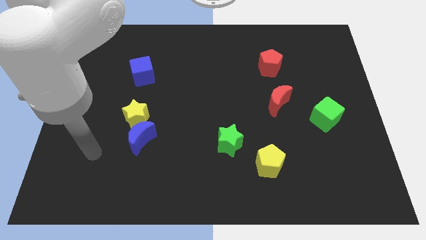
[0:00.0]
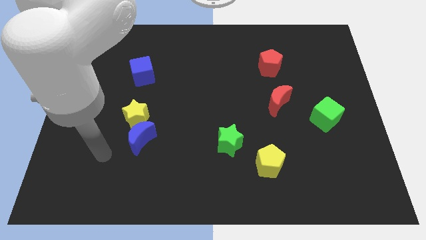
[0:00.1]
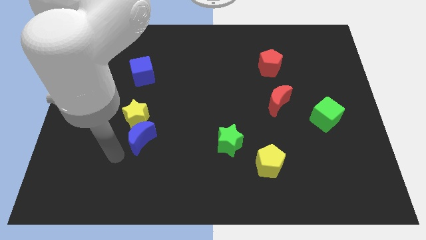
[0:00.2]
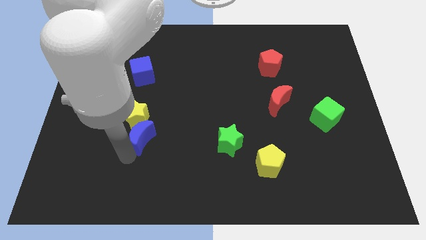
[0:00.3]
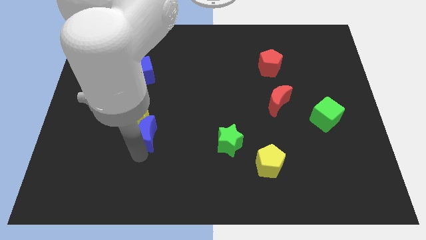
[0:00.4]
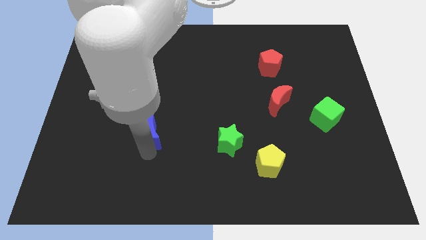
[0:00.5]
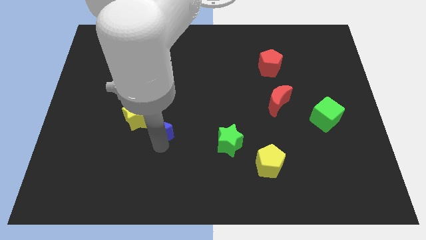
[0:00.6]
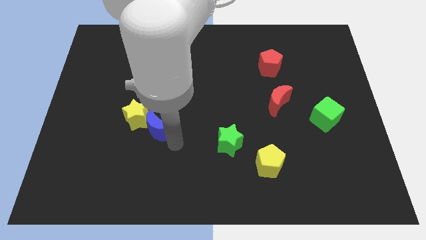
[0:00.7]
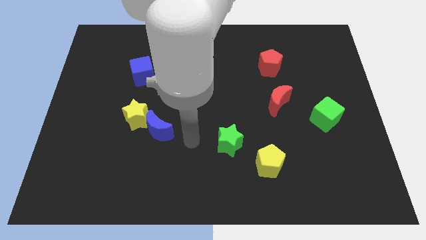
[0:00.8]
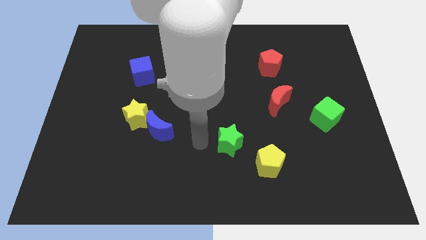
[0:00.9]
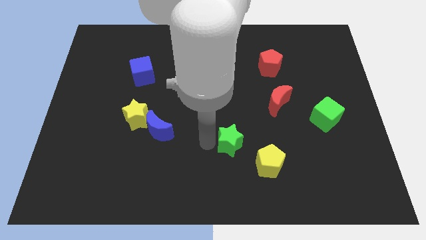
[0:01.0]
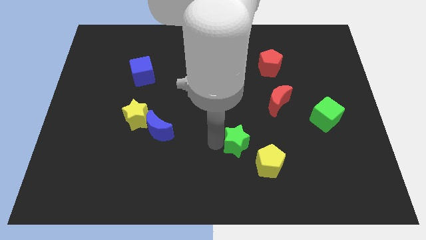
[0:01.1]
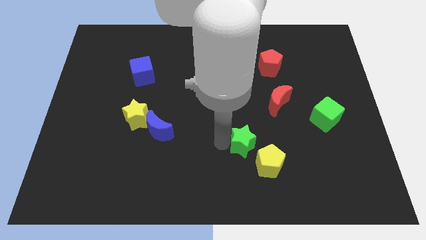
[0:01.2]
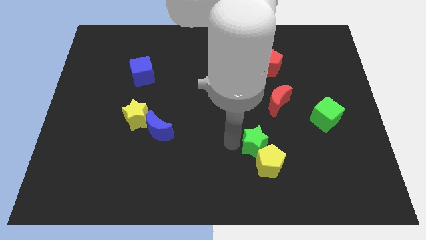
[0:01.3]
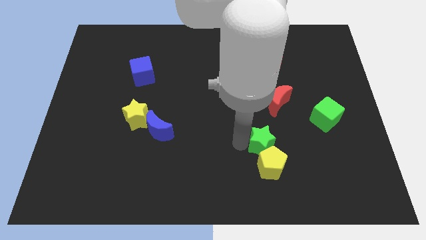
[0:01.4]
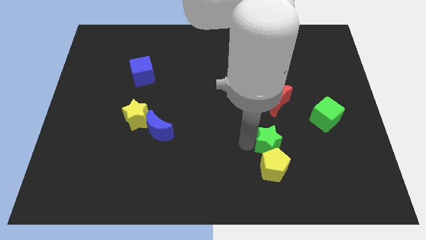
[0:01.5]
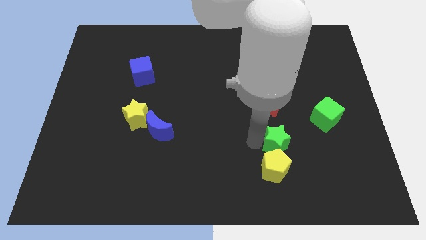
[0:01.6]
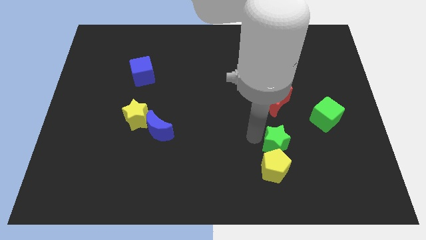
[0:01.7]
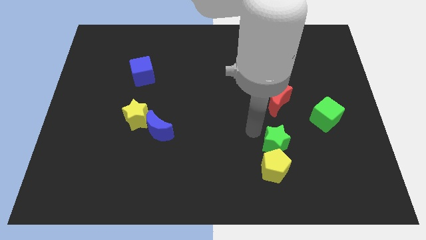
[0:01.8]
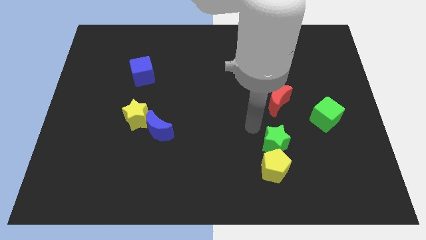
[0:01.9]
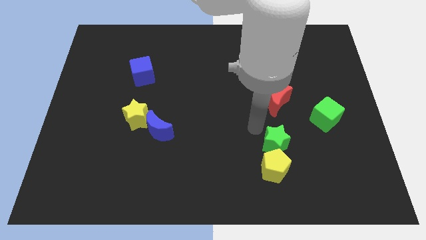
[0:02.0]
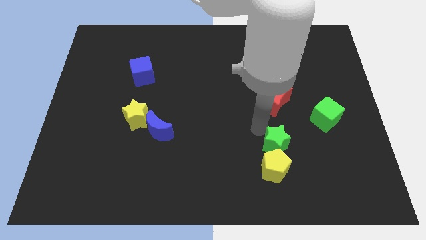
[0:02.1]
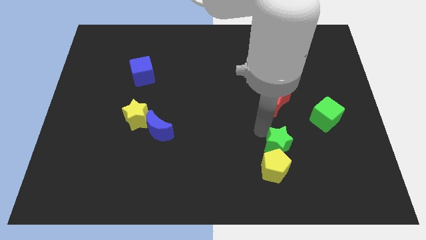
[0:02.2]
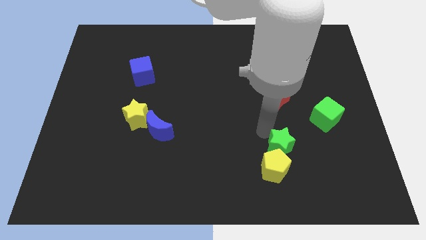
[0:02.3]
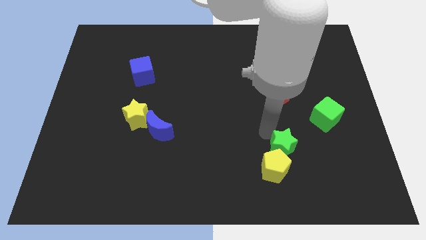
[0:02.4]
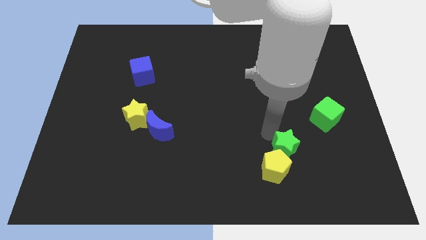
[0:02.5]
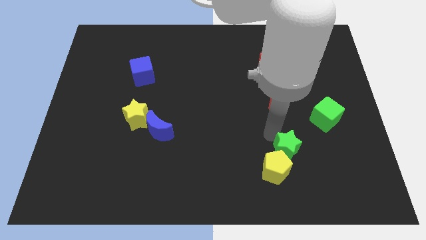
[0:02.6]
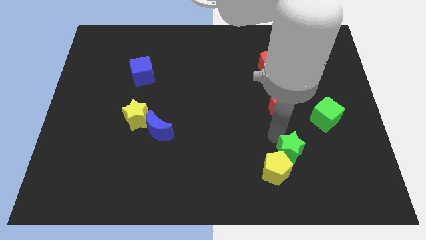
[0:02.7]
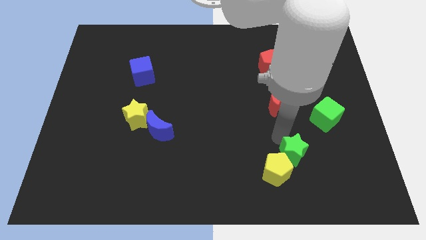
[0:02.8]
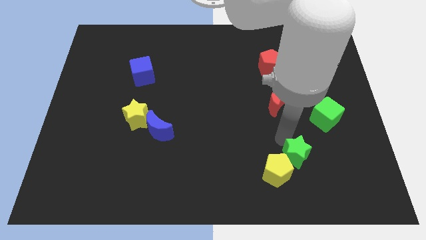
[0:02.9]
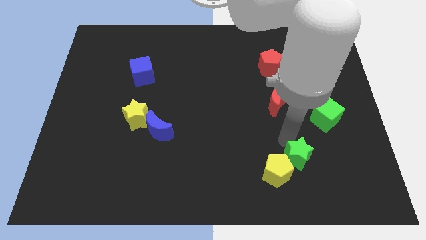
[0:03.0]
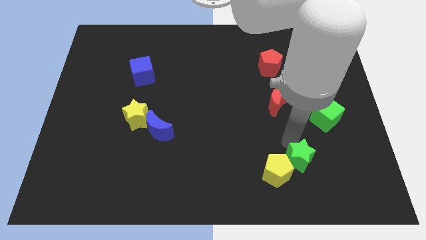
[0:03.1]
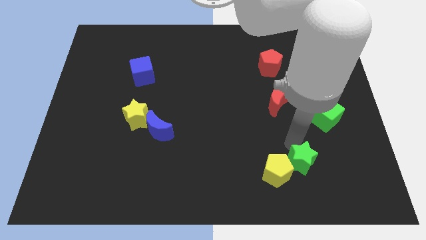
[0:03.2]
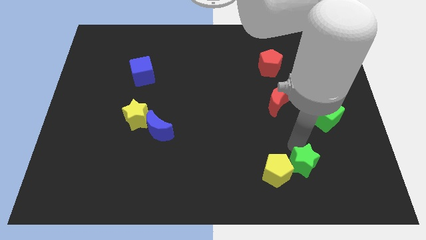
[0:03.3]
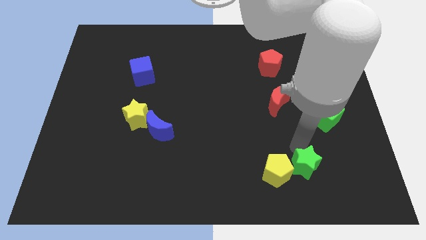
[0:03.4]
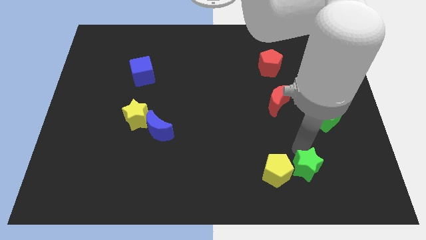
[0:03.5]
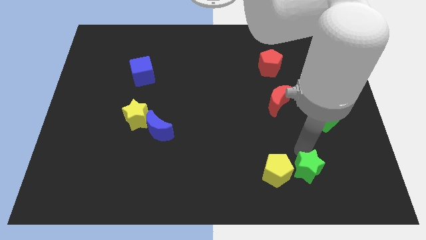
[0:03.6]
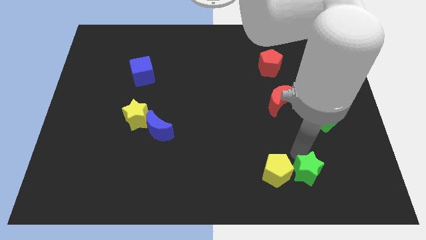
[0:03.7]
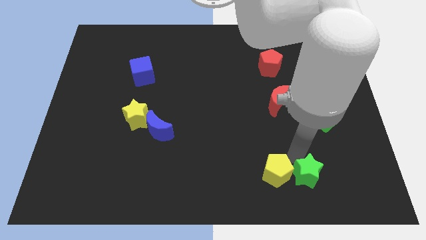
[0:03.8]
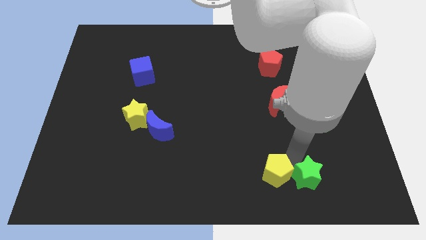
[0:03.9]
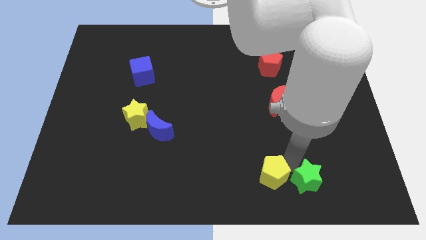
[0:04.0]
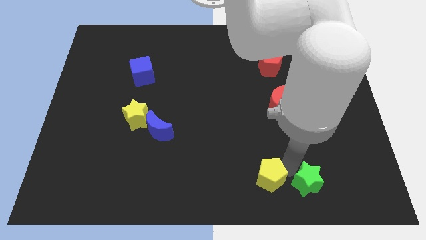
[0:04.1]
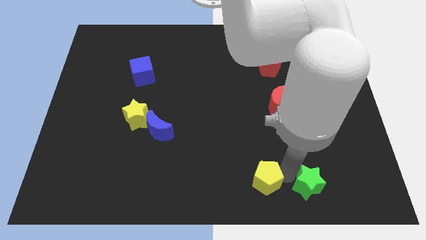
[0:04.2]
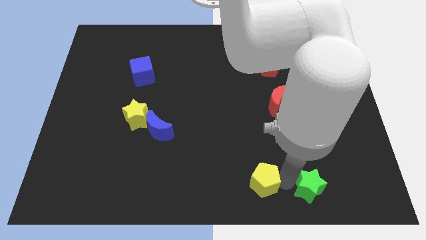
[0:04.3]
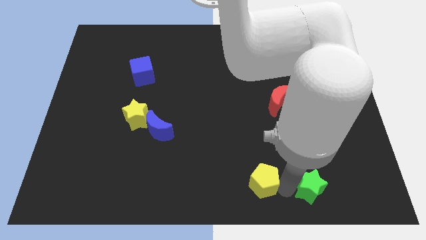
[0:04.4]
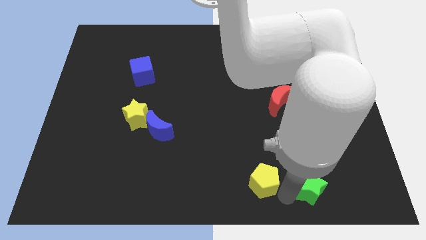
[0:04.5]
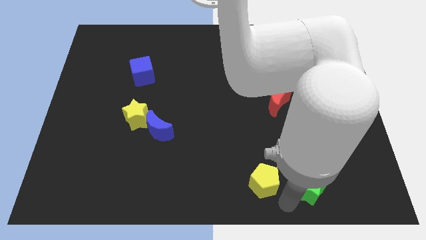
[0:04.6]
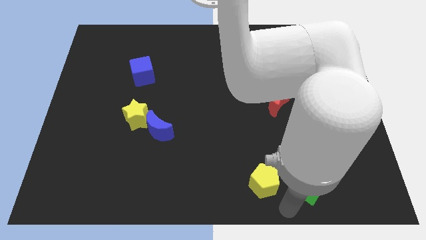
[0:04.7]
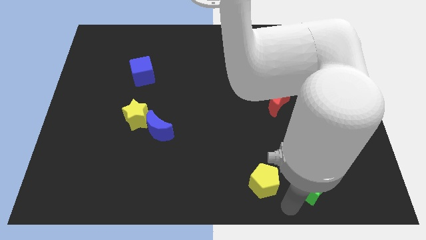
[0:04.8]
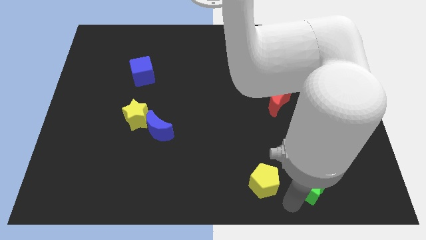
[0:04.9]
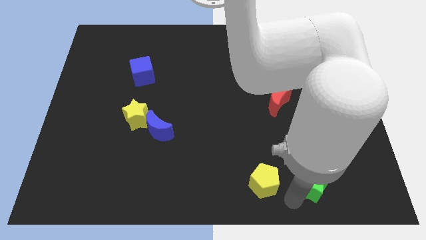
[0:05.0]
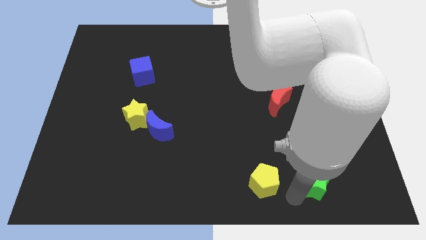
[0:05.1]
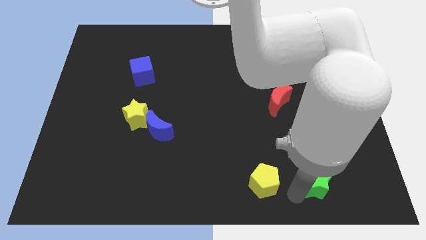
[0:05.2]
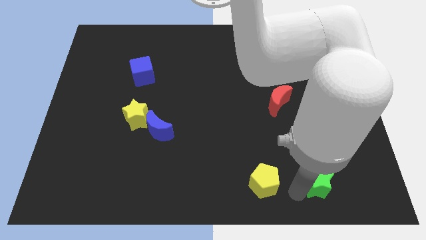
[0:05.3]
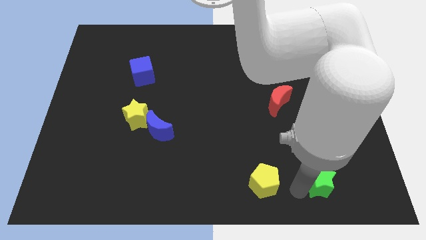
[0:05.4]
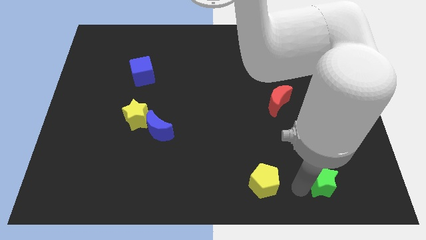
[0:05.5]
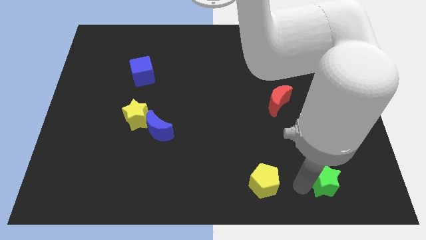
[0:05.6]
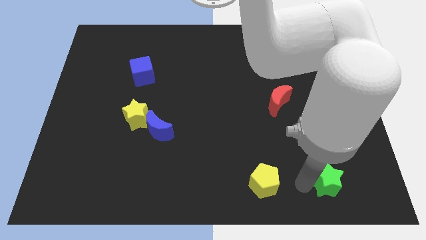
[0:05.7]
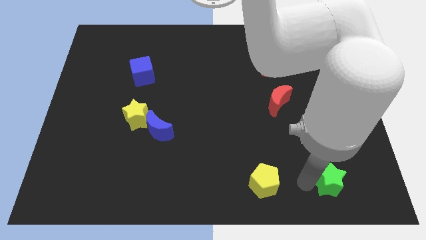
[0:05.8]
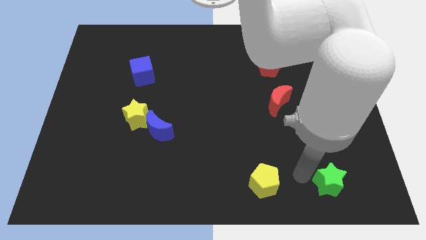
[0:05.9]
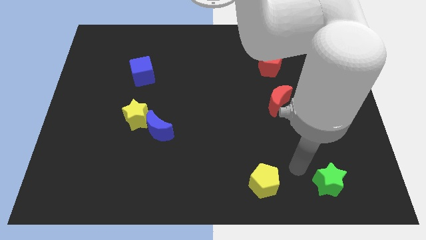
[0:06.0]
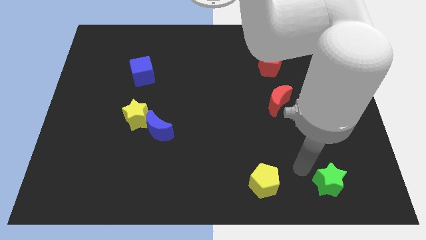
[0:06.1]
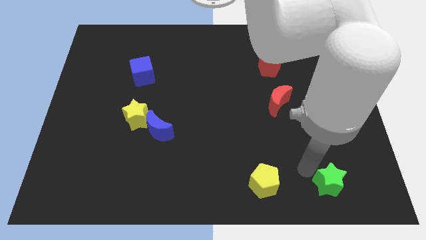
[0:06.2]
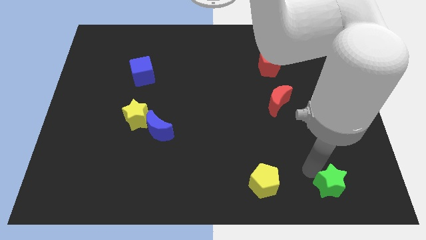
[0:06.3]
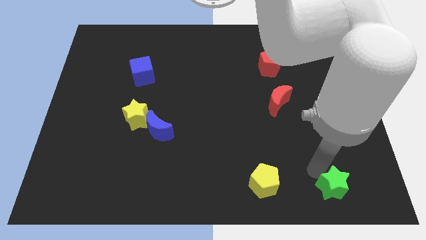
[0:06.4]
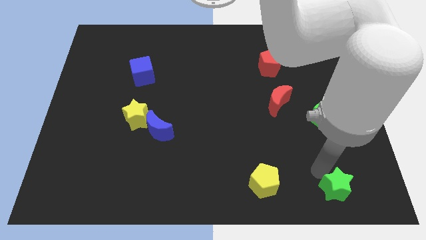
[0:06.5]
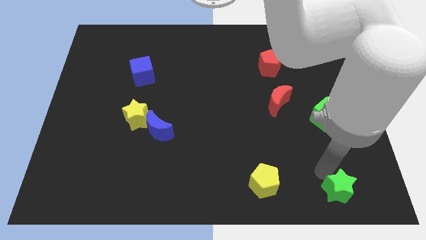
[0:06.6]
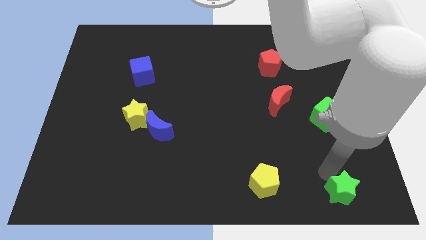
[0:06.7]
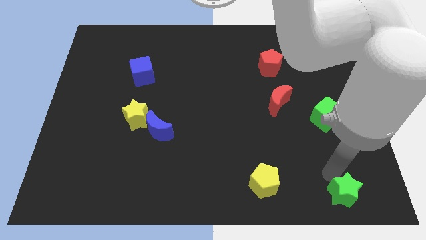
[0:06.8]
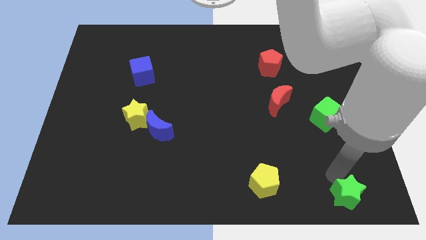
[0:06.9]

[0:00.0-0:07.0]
slide the green star to the bottom right corner
